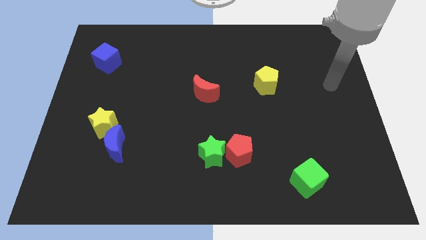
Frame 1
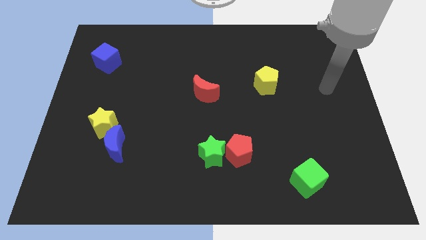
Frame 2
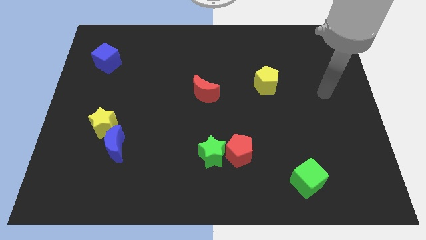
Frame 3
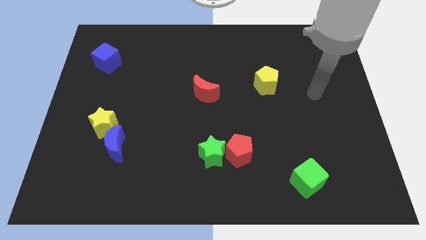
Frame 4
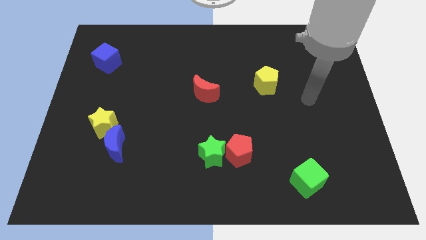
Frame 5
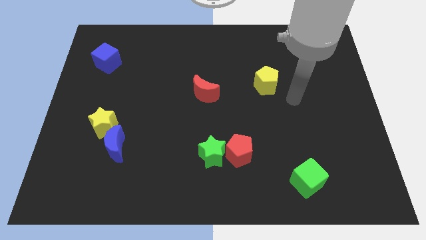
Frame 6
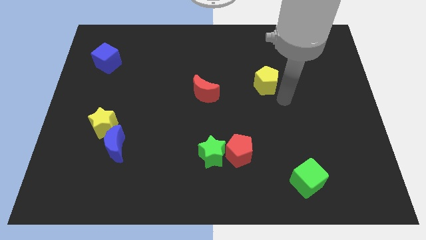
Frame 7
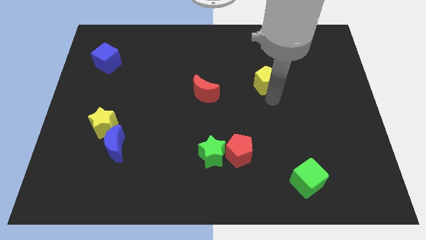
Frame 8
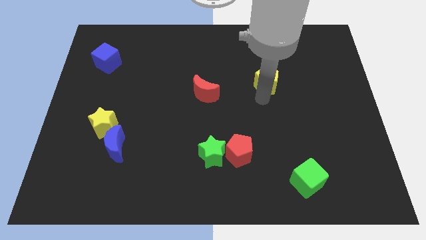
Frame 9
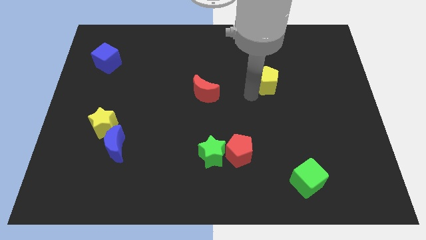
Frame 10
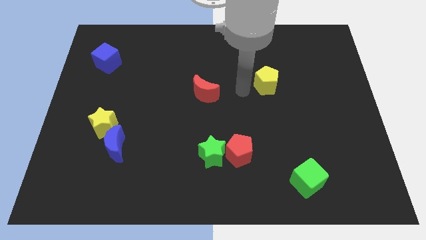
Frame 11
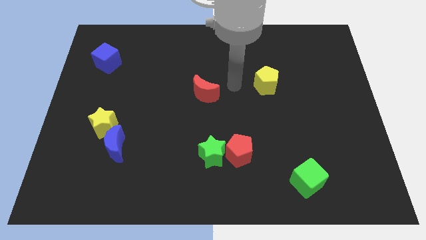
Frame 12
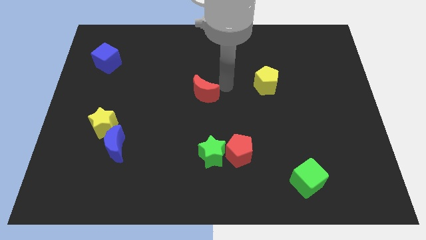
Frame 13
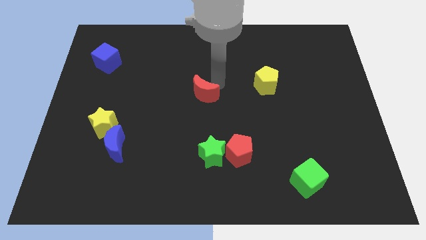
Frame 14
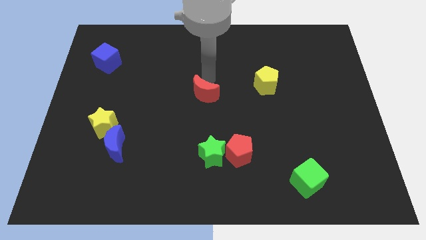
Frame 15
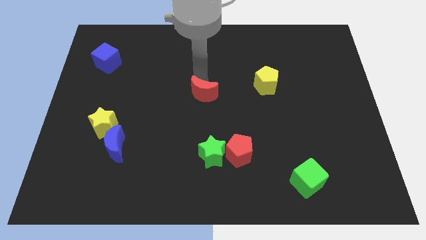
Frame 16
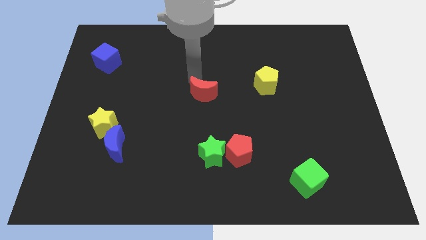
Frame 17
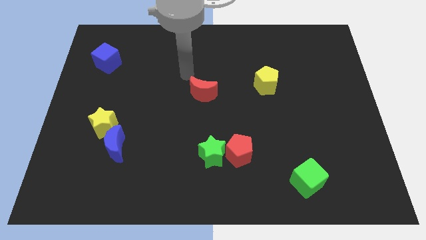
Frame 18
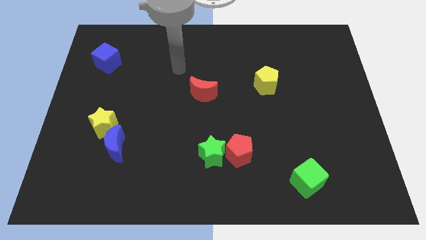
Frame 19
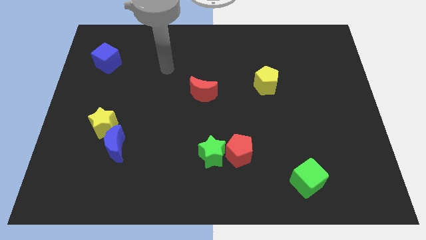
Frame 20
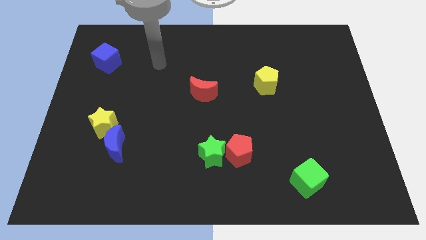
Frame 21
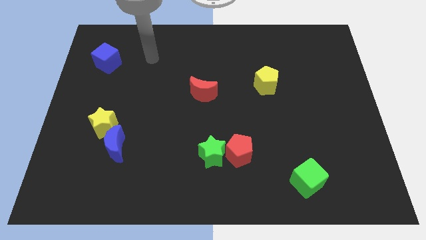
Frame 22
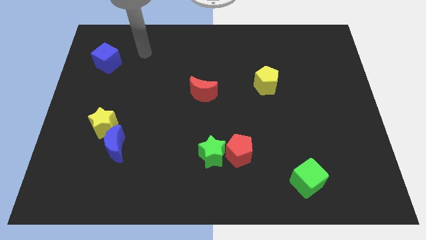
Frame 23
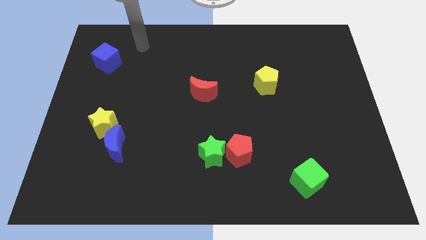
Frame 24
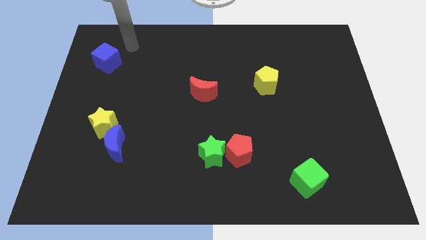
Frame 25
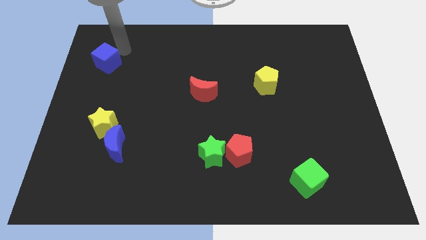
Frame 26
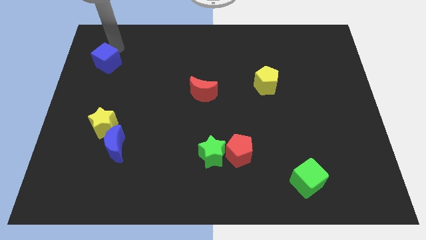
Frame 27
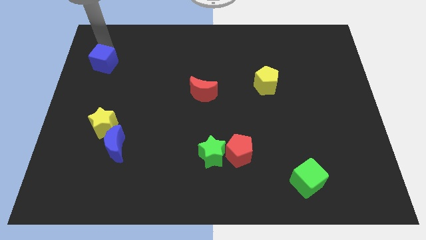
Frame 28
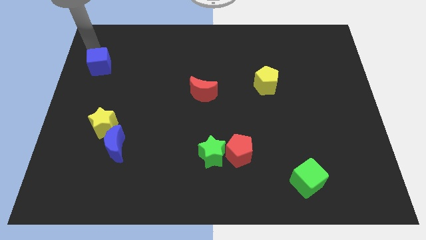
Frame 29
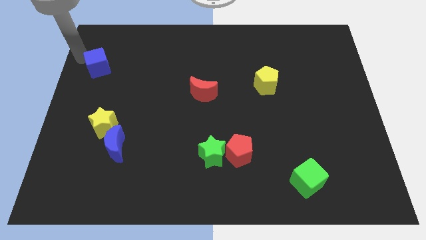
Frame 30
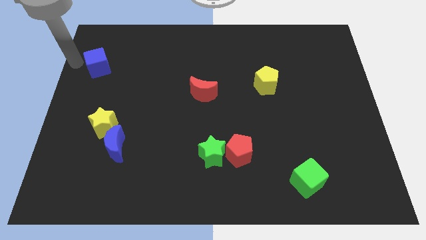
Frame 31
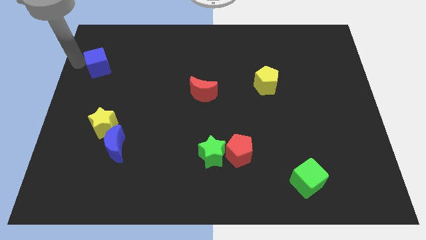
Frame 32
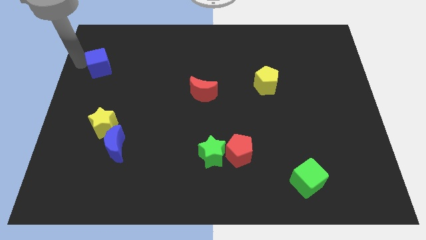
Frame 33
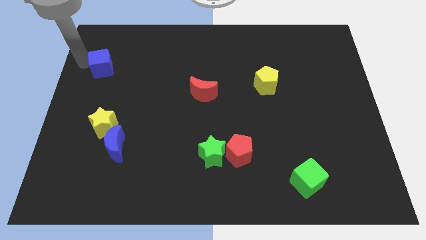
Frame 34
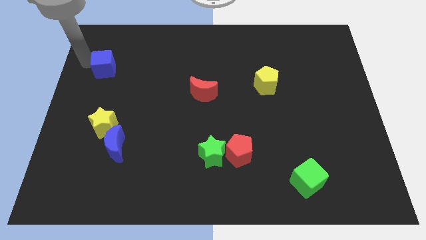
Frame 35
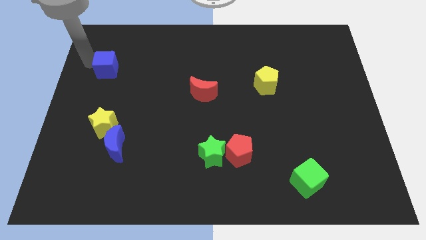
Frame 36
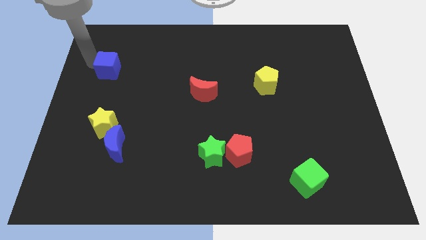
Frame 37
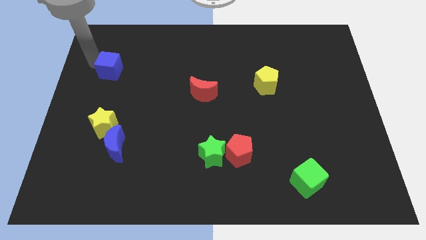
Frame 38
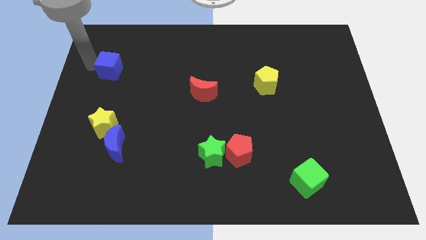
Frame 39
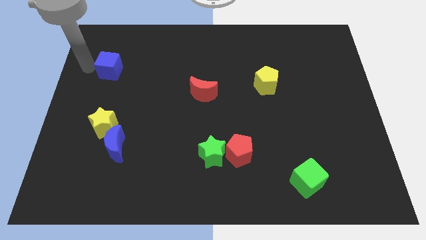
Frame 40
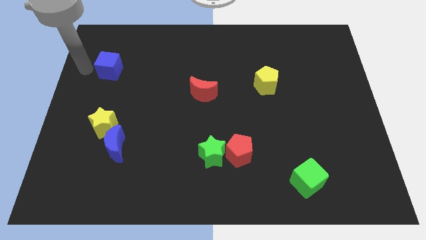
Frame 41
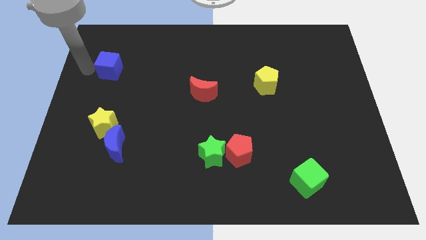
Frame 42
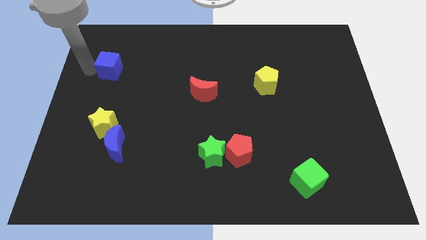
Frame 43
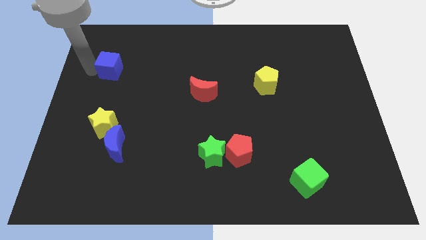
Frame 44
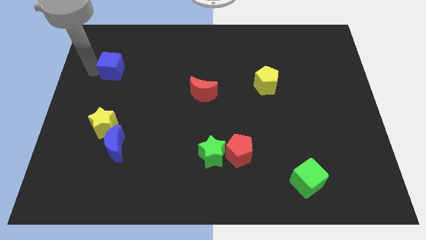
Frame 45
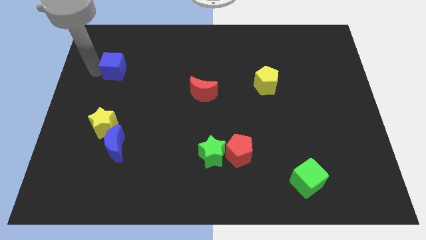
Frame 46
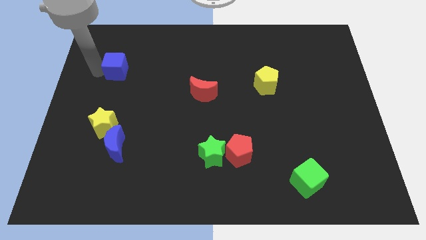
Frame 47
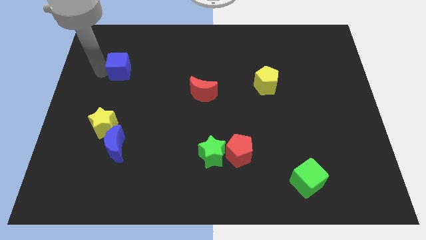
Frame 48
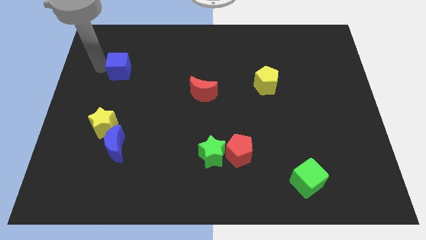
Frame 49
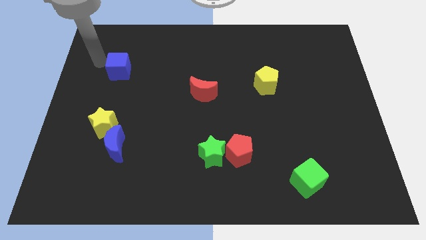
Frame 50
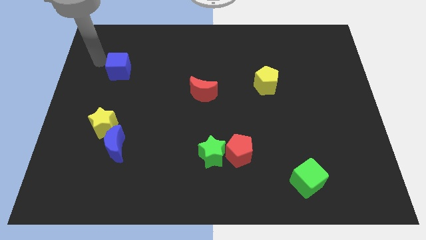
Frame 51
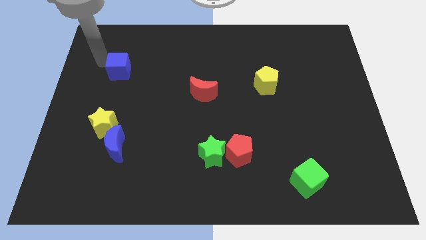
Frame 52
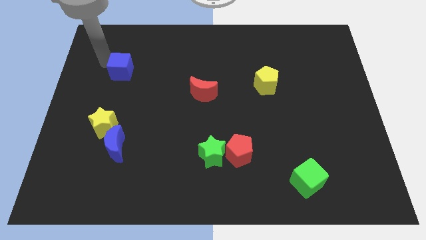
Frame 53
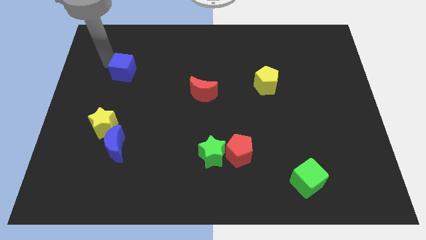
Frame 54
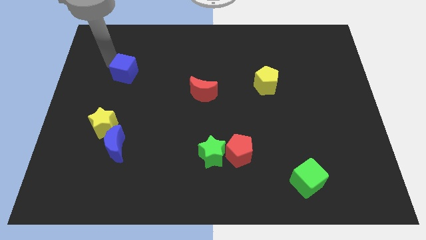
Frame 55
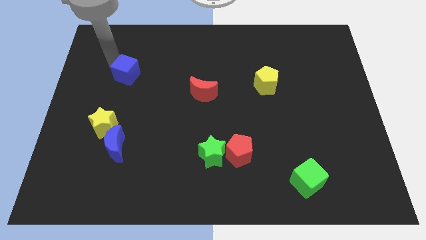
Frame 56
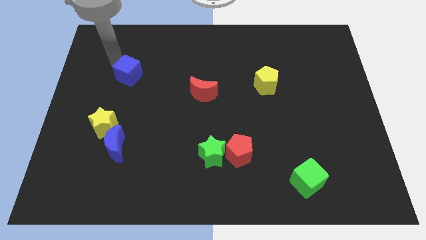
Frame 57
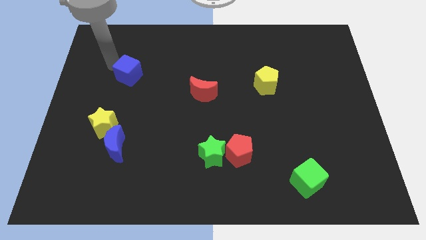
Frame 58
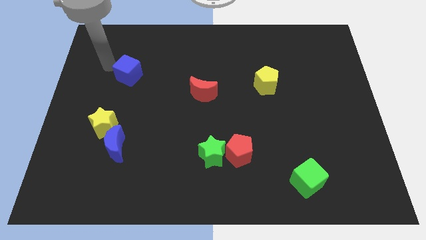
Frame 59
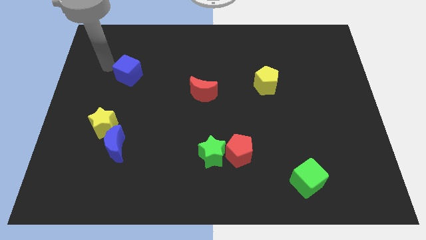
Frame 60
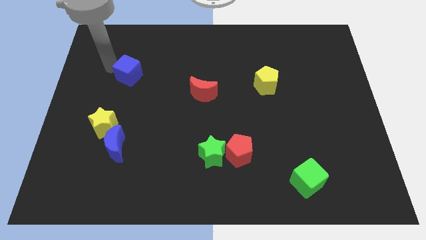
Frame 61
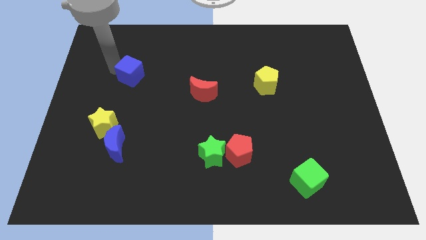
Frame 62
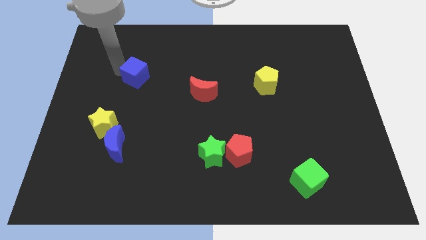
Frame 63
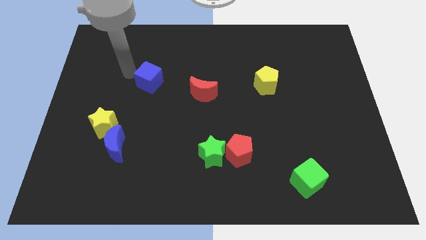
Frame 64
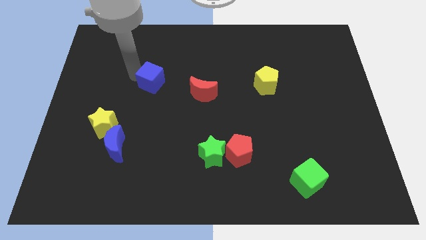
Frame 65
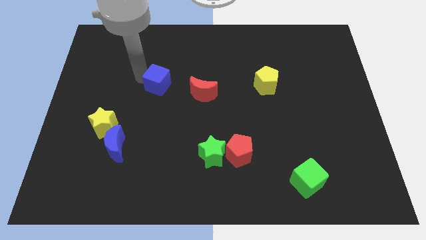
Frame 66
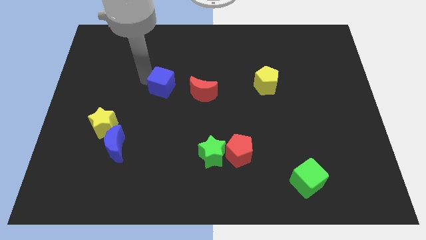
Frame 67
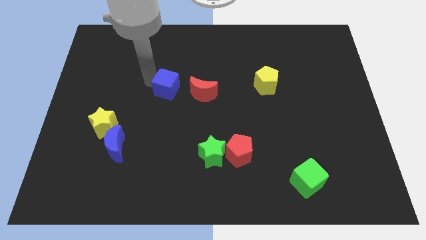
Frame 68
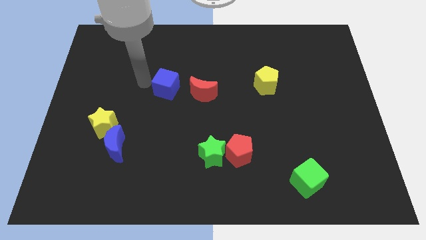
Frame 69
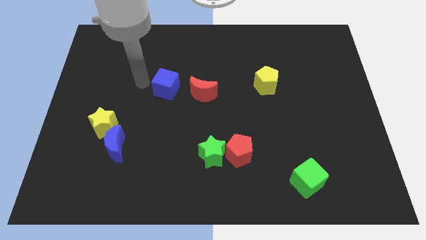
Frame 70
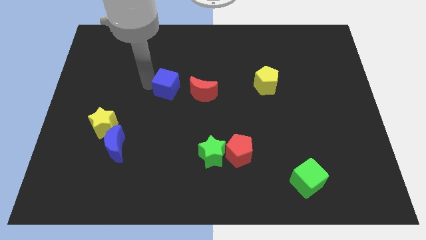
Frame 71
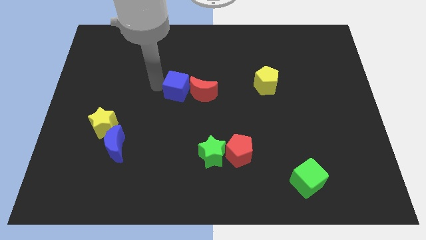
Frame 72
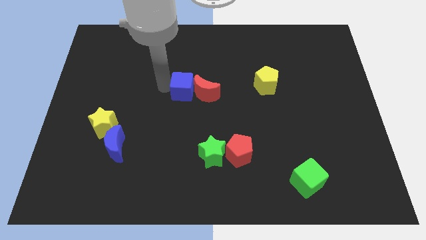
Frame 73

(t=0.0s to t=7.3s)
put the blue cube to the red moon

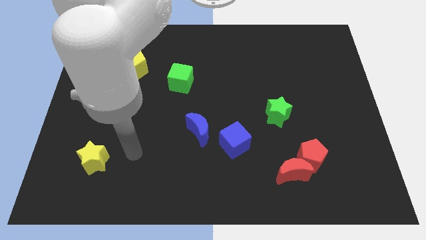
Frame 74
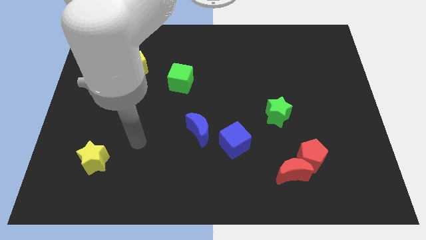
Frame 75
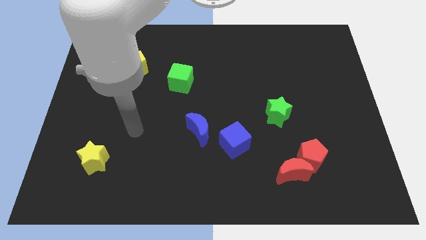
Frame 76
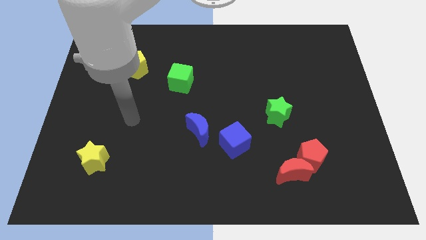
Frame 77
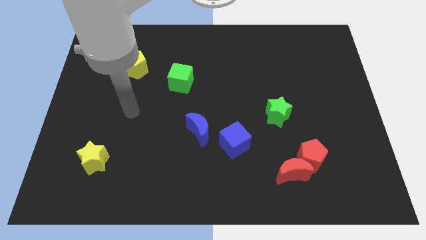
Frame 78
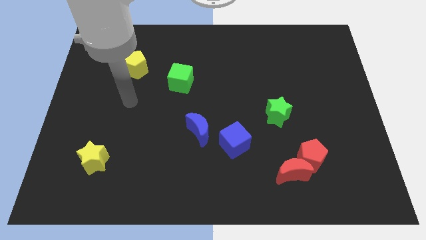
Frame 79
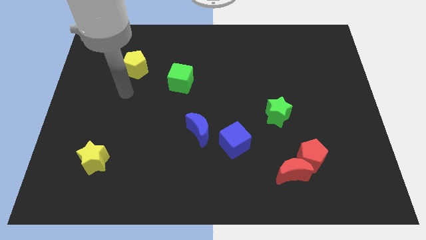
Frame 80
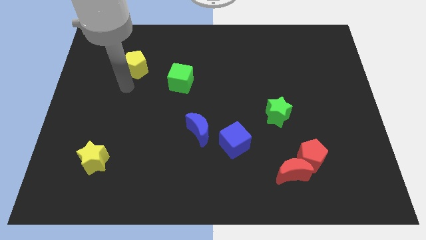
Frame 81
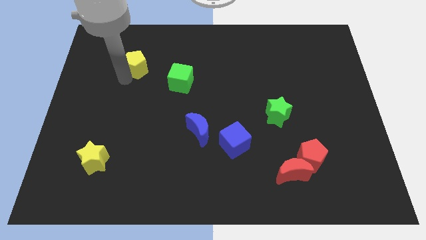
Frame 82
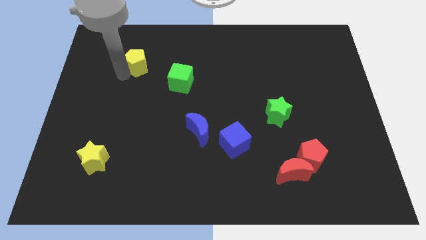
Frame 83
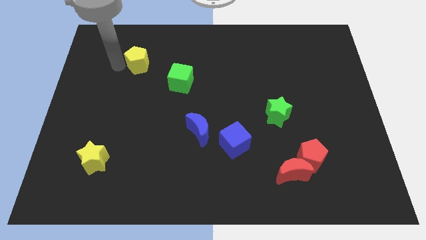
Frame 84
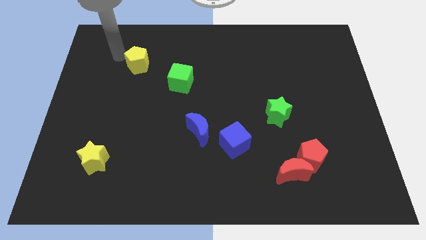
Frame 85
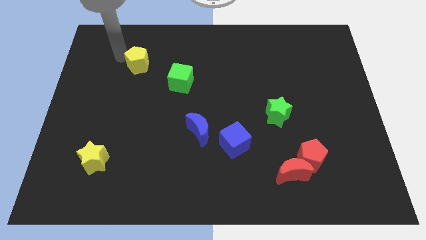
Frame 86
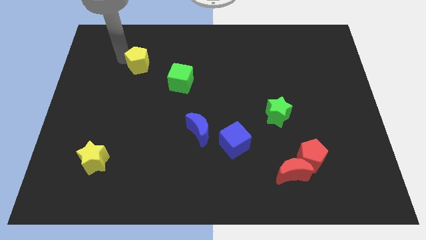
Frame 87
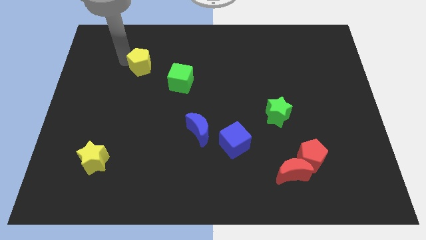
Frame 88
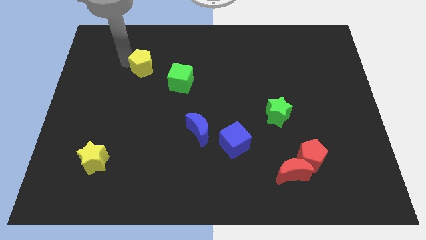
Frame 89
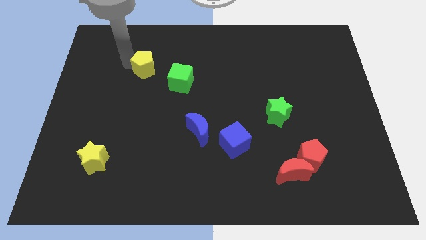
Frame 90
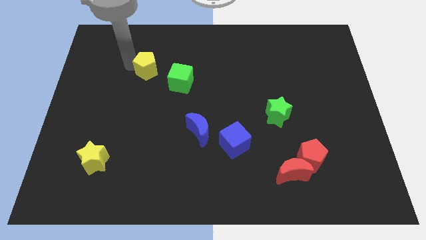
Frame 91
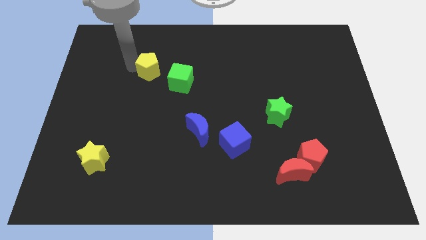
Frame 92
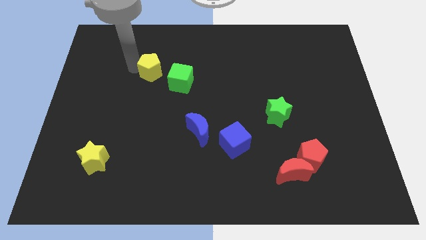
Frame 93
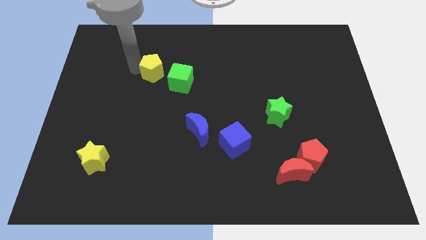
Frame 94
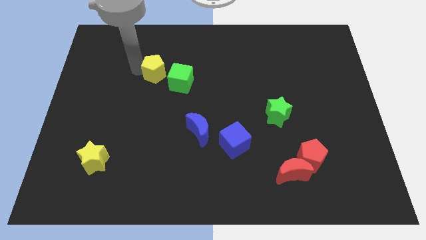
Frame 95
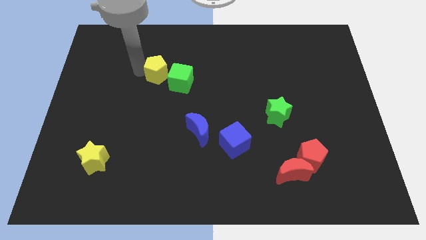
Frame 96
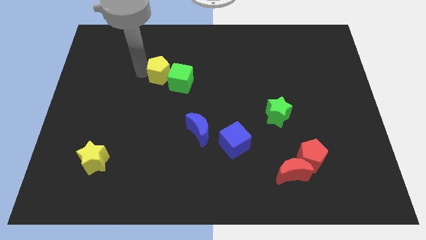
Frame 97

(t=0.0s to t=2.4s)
put the yellow pentagon close to the green cube
